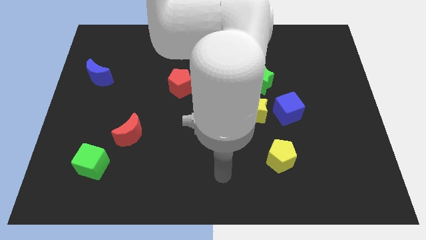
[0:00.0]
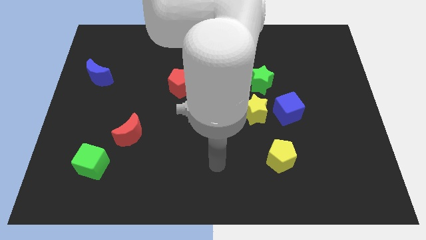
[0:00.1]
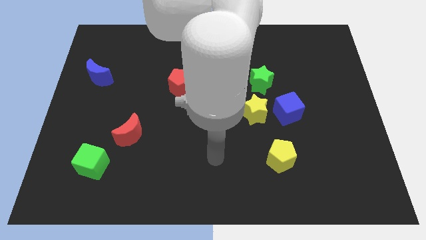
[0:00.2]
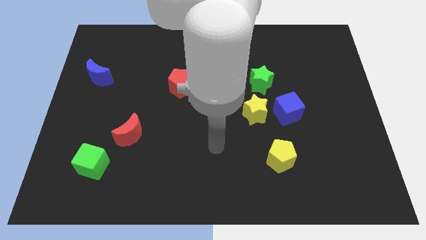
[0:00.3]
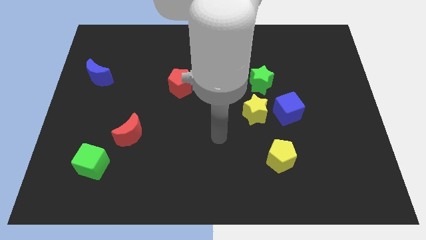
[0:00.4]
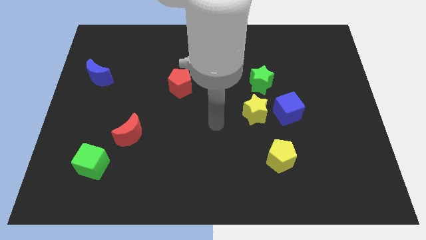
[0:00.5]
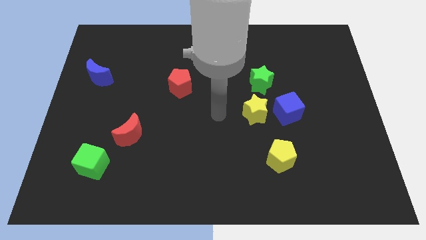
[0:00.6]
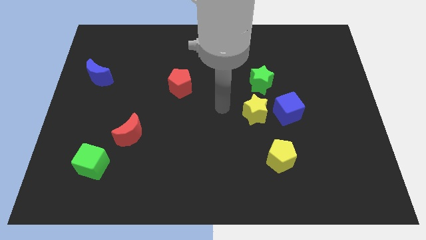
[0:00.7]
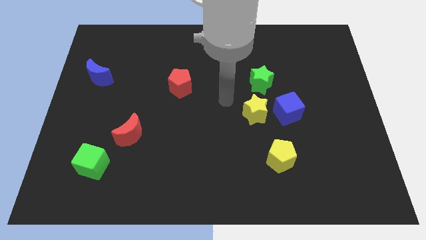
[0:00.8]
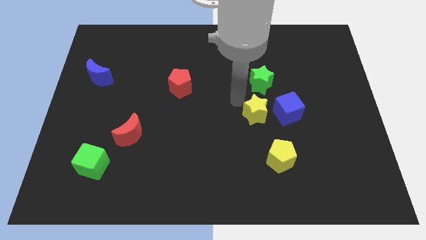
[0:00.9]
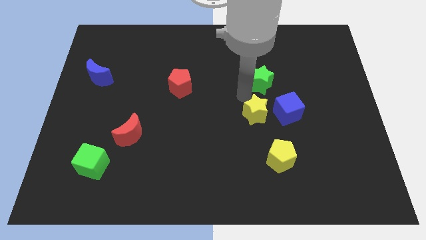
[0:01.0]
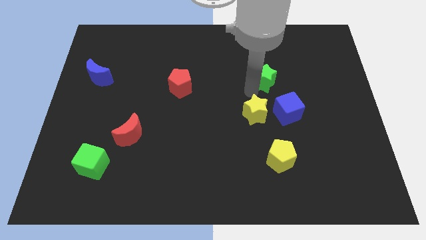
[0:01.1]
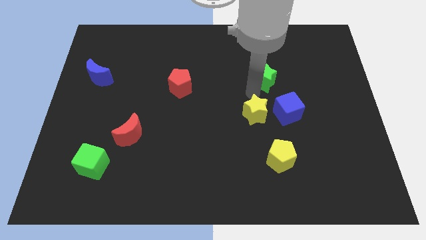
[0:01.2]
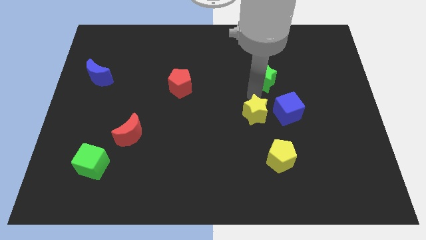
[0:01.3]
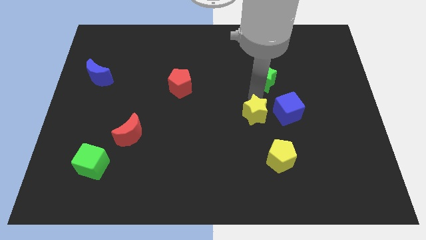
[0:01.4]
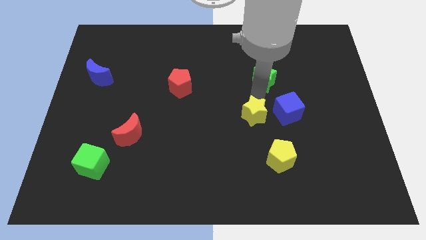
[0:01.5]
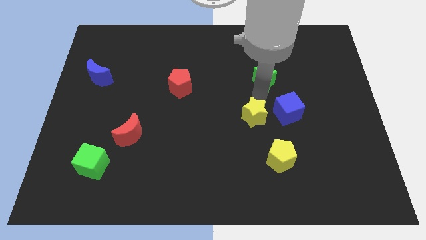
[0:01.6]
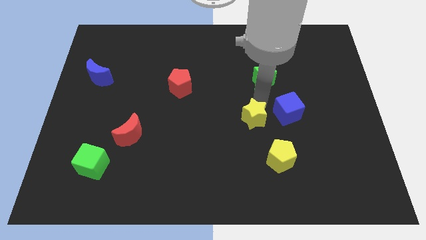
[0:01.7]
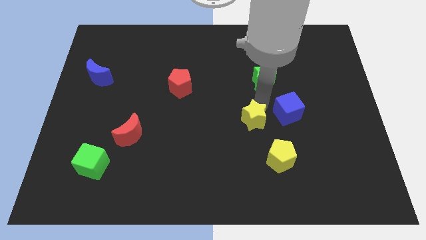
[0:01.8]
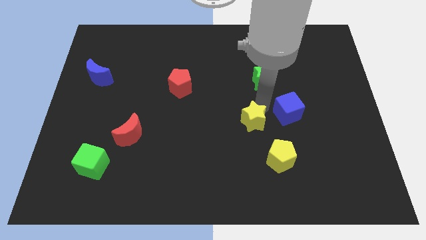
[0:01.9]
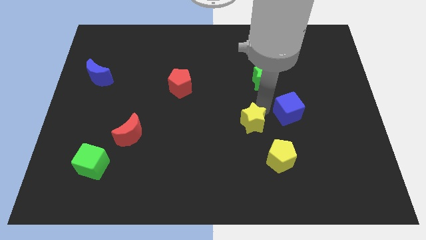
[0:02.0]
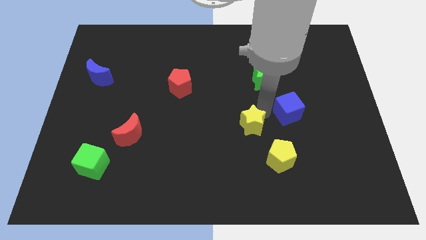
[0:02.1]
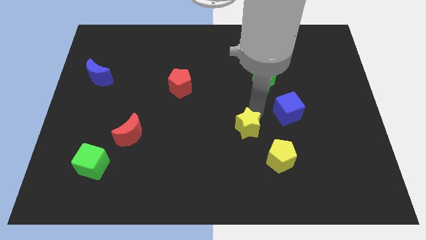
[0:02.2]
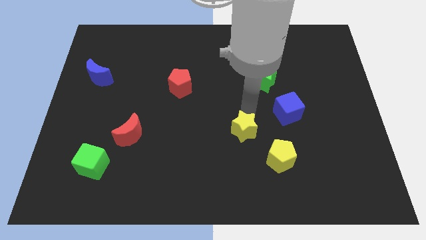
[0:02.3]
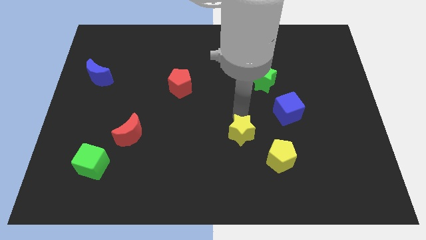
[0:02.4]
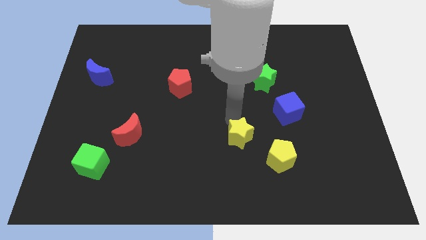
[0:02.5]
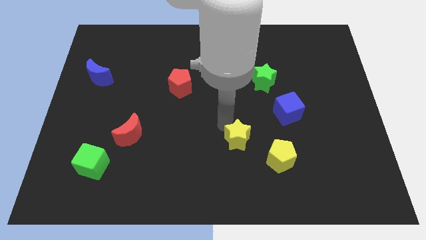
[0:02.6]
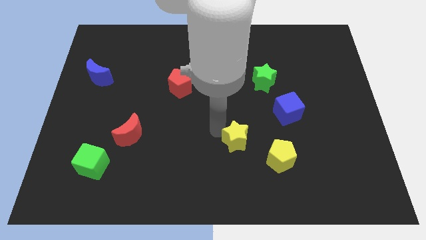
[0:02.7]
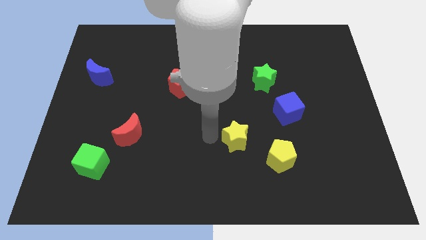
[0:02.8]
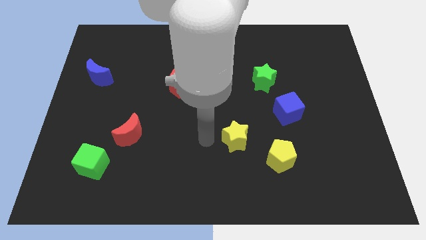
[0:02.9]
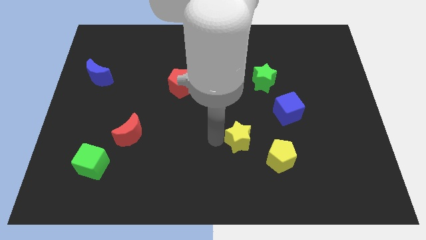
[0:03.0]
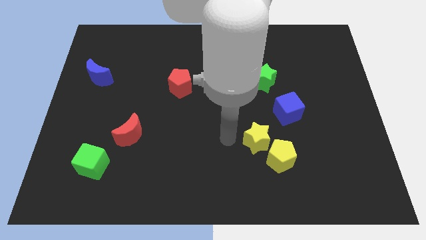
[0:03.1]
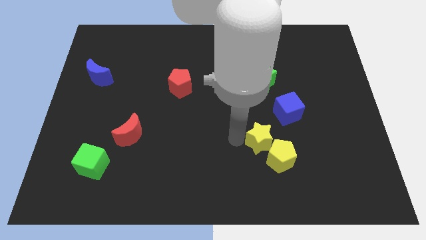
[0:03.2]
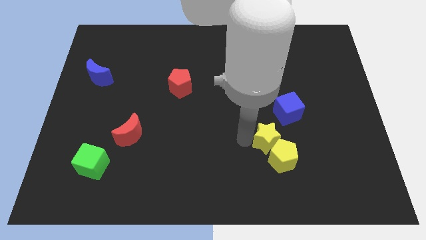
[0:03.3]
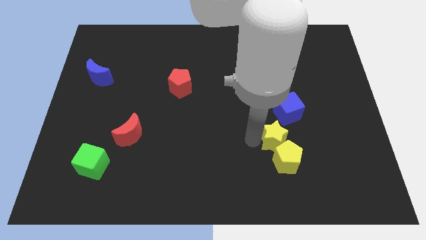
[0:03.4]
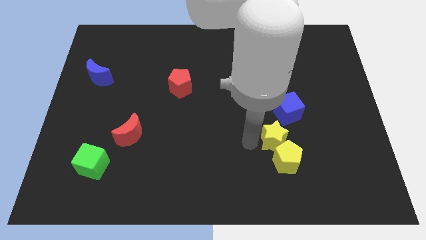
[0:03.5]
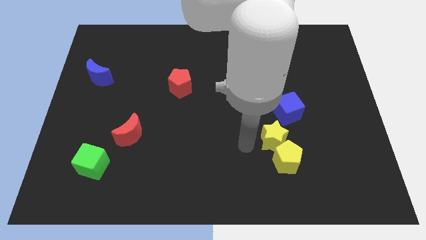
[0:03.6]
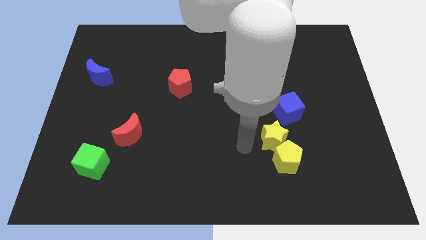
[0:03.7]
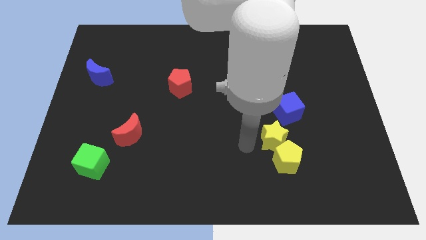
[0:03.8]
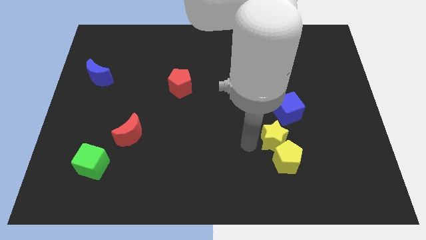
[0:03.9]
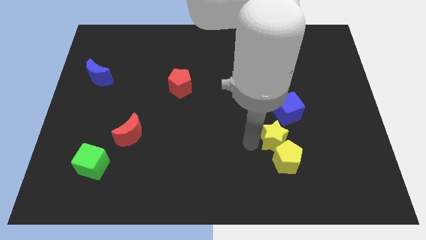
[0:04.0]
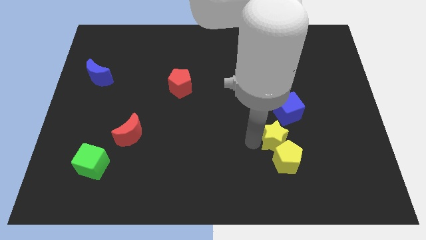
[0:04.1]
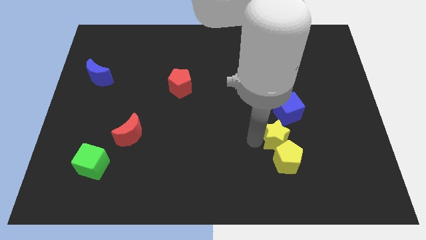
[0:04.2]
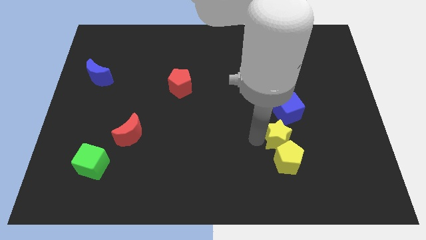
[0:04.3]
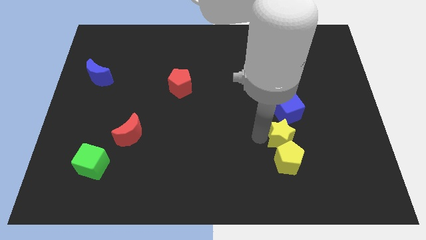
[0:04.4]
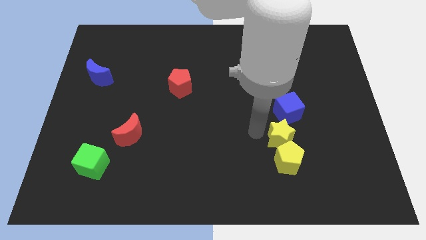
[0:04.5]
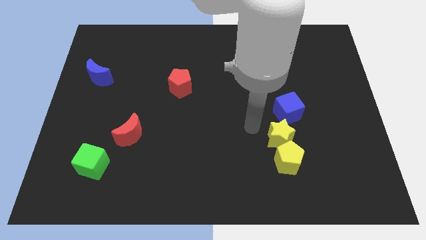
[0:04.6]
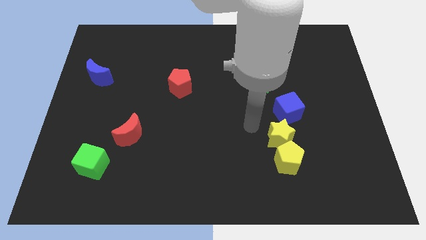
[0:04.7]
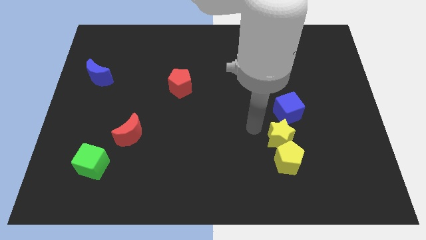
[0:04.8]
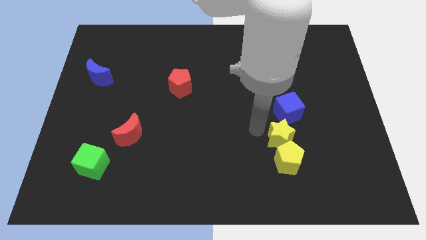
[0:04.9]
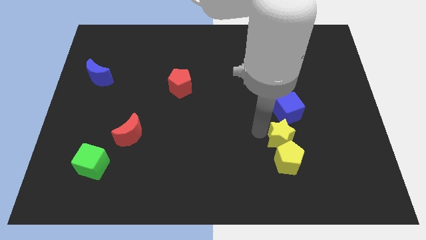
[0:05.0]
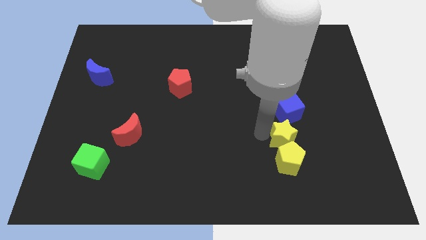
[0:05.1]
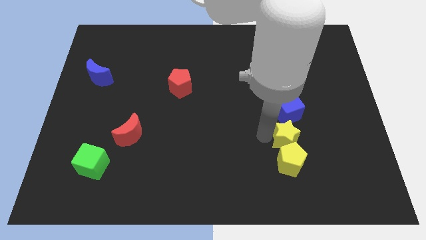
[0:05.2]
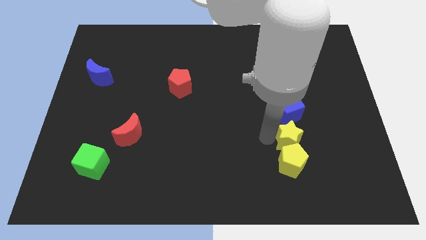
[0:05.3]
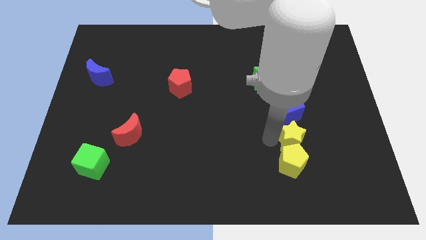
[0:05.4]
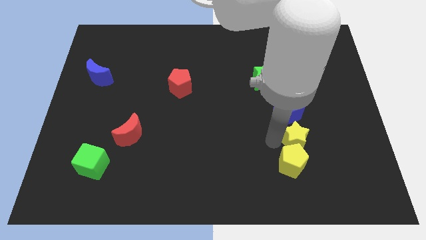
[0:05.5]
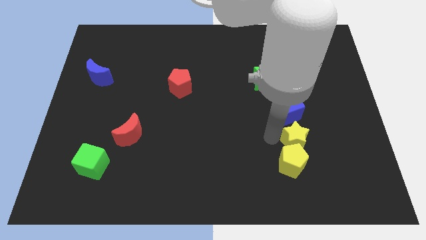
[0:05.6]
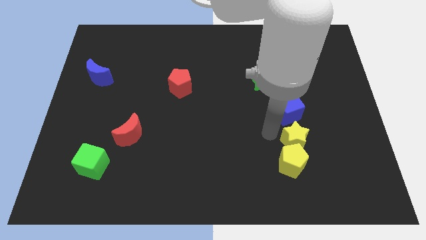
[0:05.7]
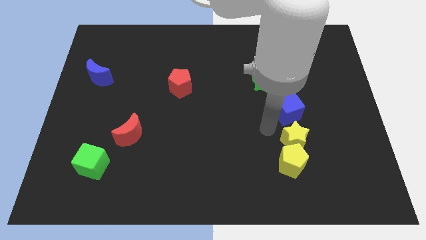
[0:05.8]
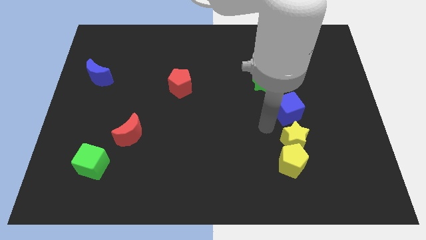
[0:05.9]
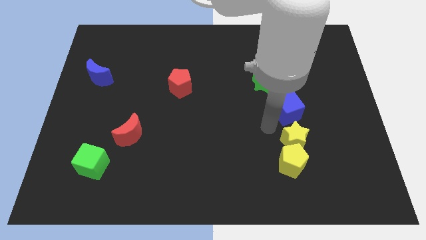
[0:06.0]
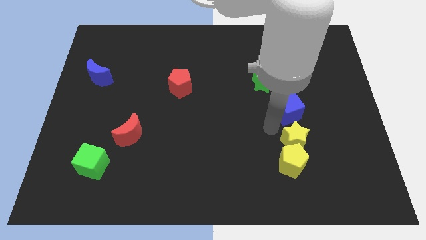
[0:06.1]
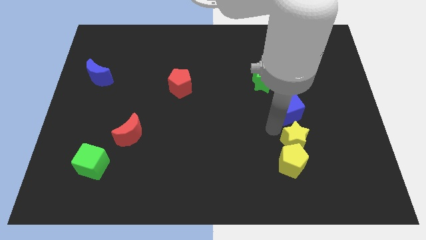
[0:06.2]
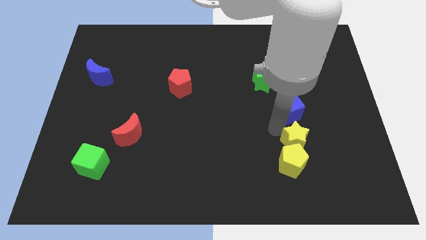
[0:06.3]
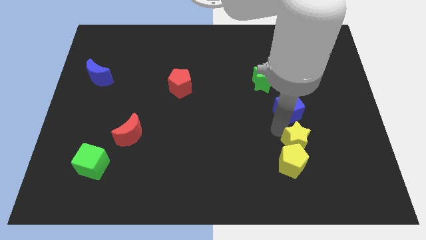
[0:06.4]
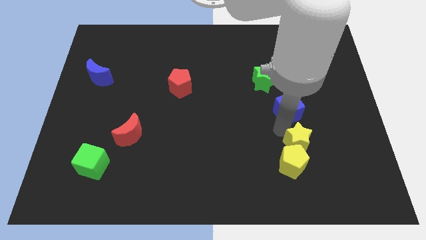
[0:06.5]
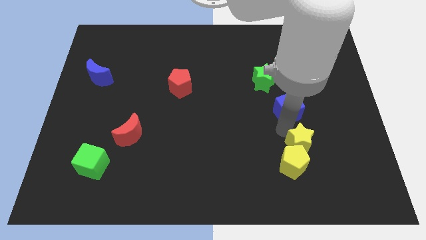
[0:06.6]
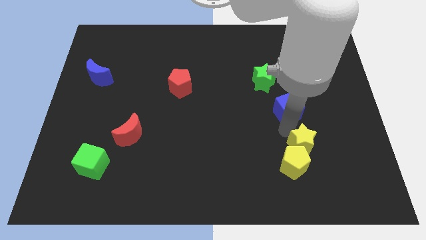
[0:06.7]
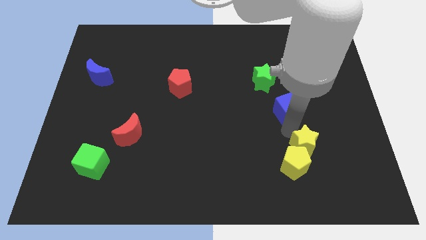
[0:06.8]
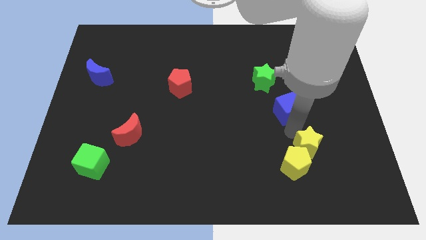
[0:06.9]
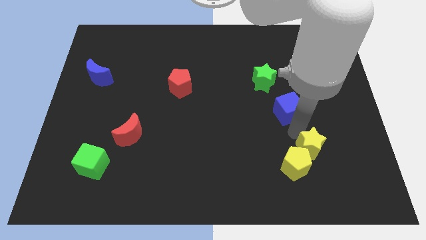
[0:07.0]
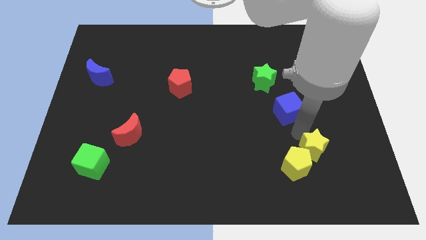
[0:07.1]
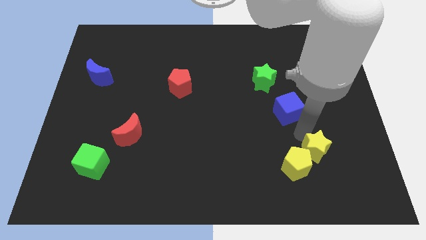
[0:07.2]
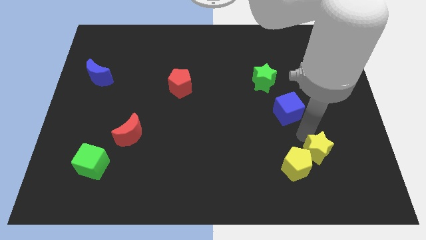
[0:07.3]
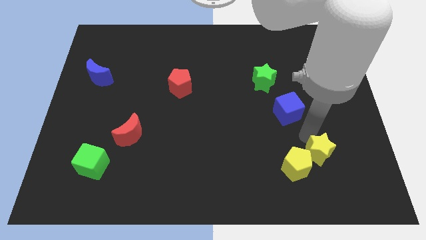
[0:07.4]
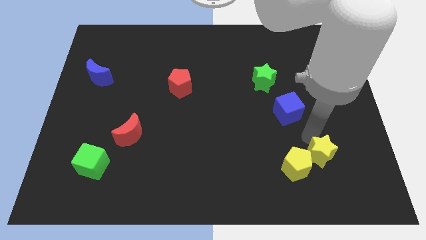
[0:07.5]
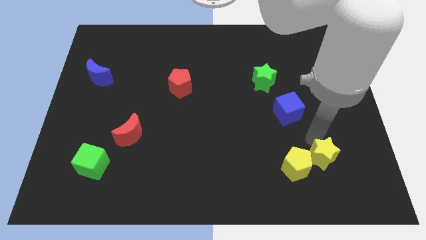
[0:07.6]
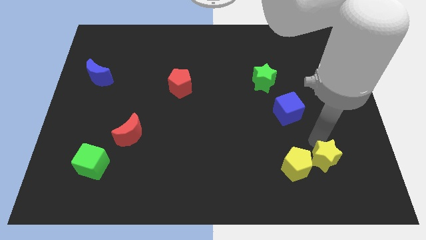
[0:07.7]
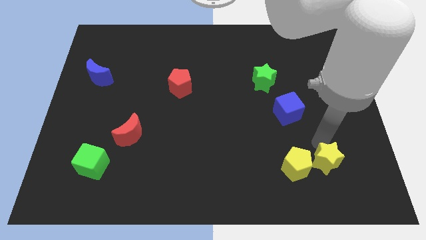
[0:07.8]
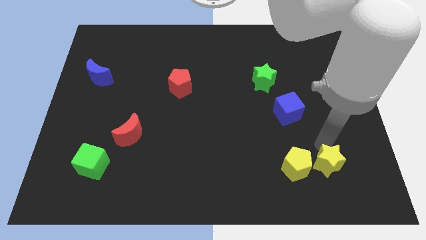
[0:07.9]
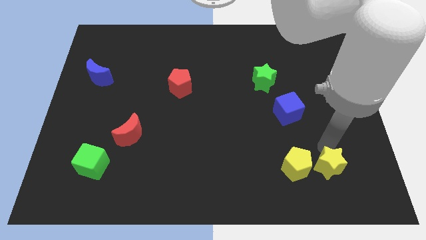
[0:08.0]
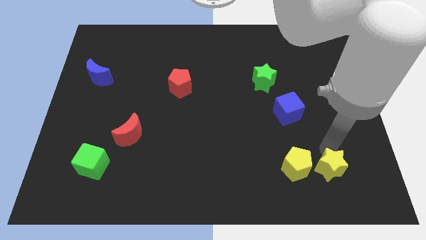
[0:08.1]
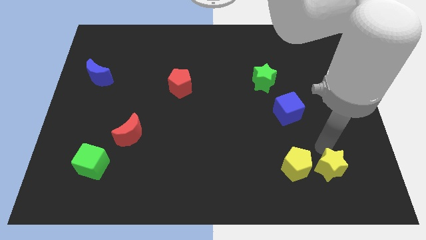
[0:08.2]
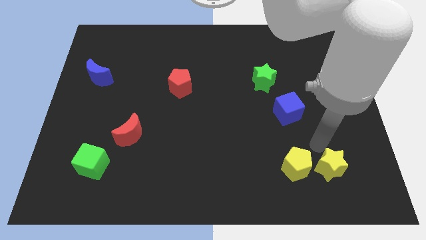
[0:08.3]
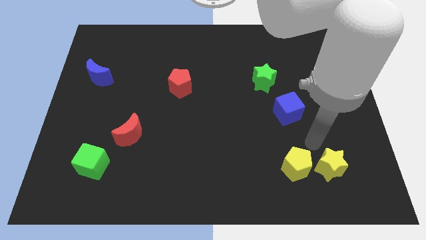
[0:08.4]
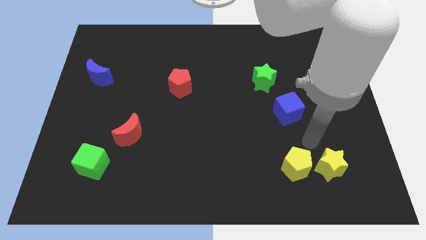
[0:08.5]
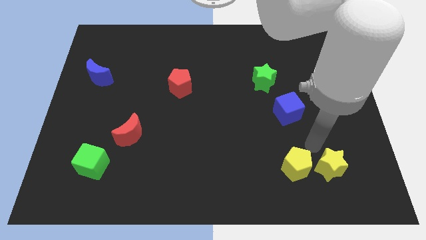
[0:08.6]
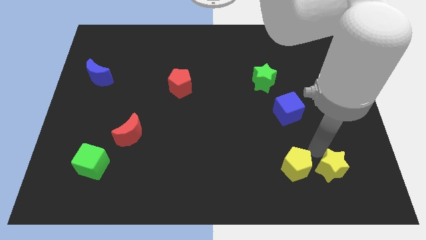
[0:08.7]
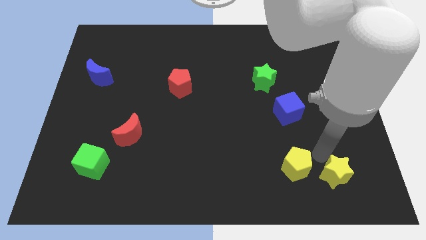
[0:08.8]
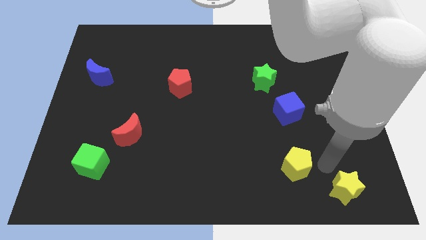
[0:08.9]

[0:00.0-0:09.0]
slide the yellow star to the bottom right corner
